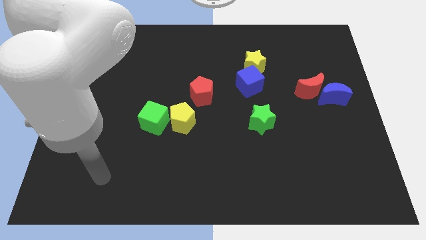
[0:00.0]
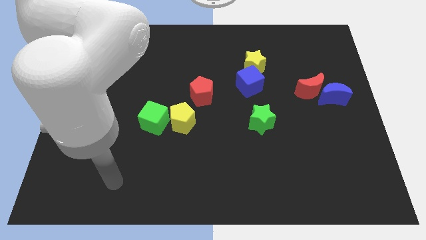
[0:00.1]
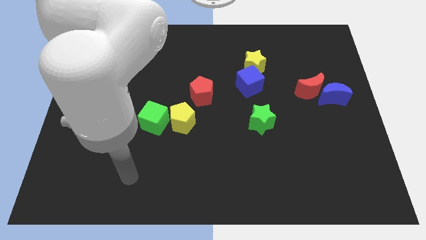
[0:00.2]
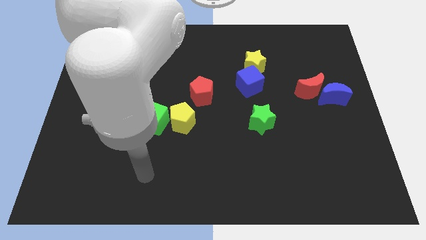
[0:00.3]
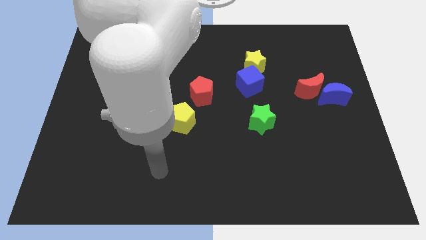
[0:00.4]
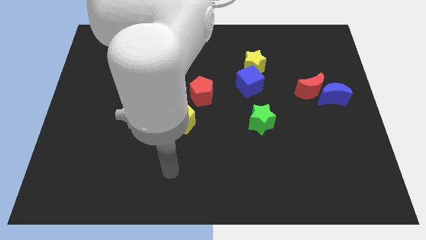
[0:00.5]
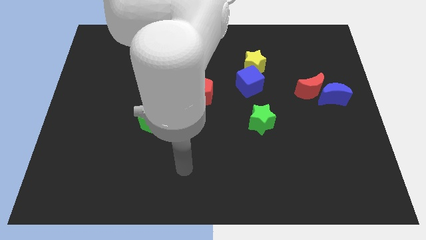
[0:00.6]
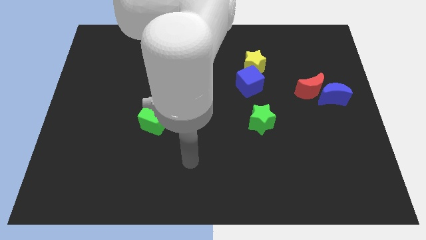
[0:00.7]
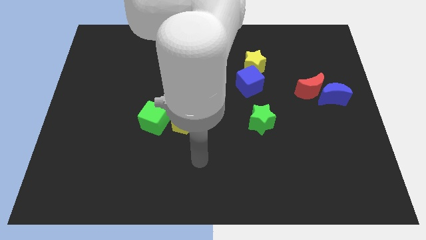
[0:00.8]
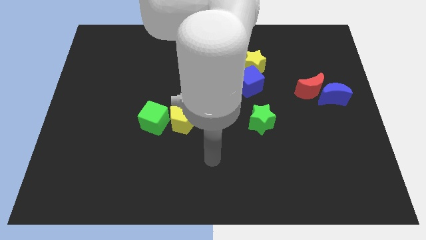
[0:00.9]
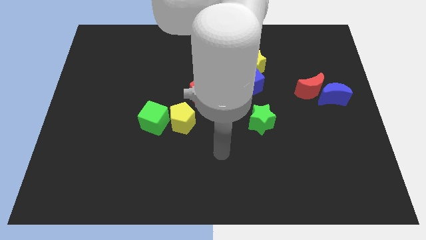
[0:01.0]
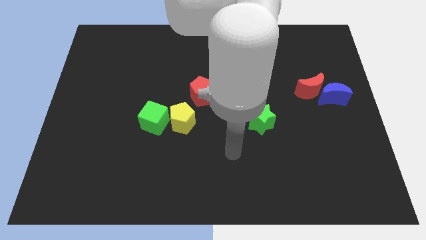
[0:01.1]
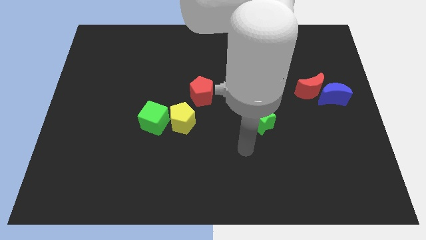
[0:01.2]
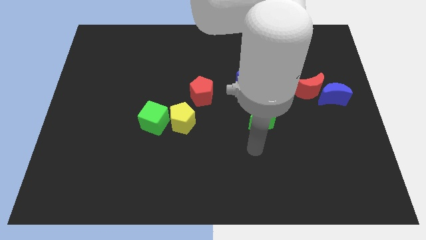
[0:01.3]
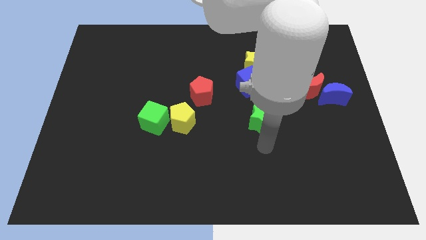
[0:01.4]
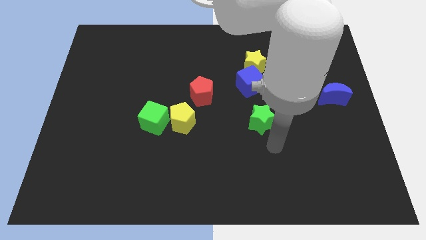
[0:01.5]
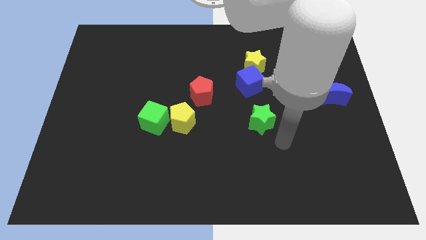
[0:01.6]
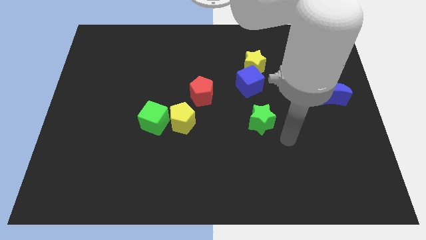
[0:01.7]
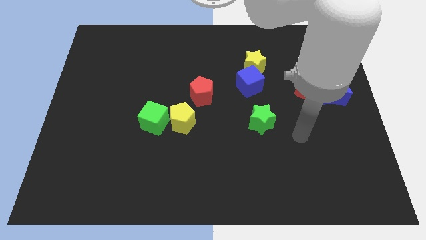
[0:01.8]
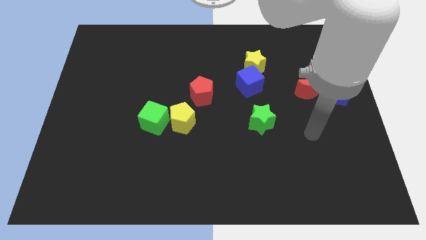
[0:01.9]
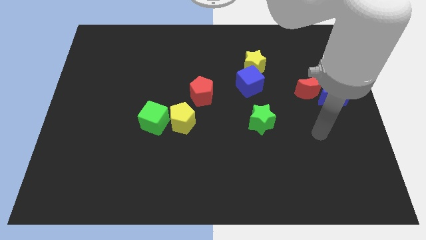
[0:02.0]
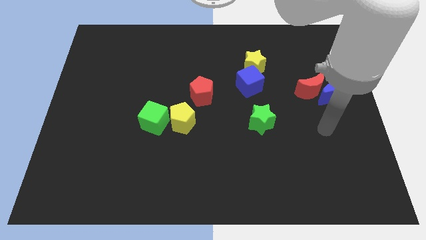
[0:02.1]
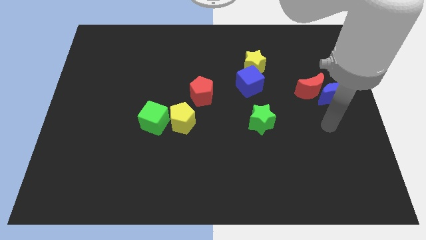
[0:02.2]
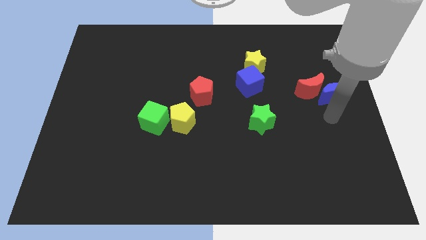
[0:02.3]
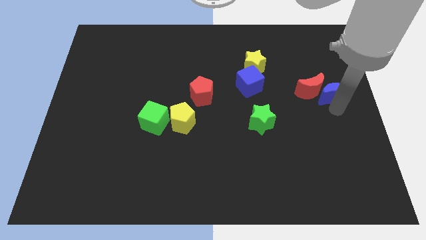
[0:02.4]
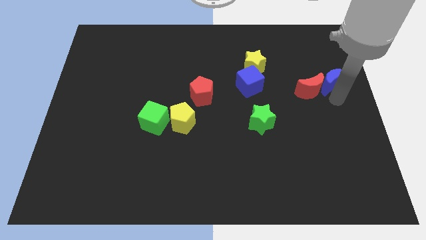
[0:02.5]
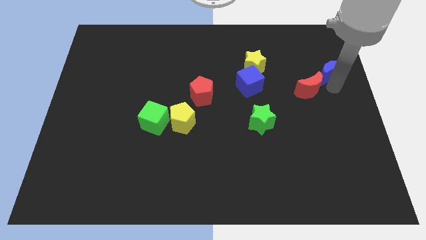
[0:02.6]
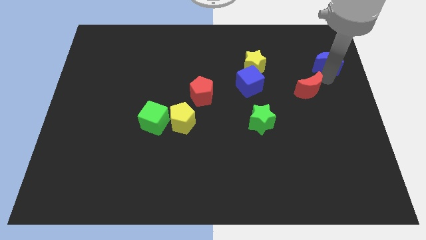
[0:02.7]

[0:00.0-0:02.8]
move the red moon away from the blue moon

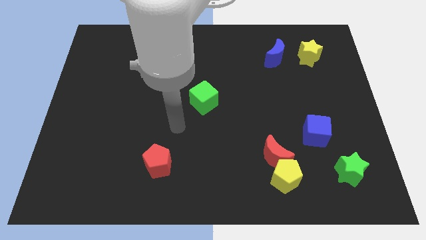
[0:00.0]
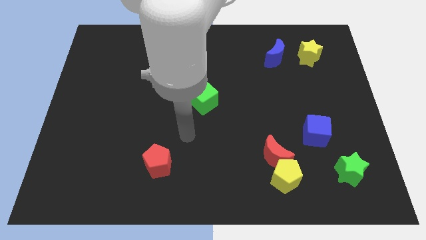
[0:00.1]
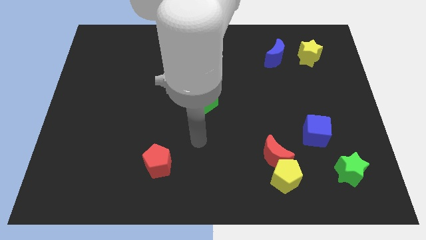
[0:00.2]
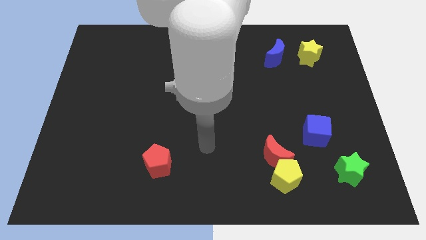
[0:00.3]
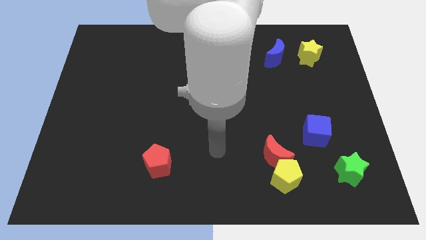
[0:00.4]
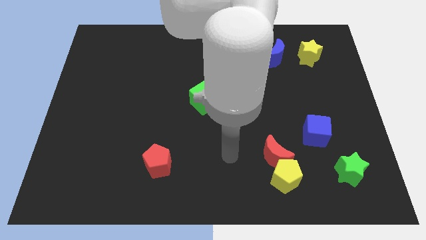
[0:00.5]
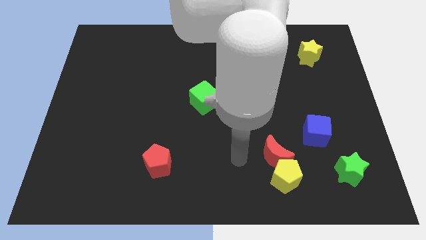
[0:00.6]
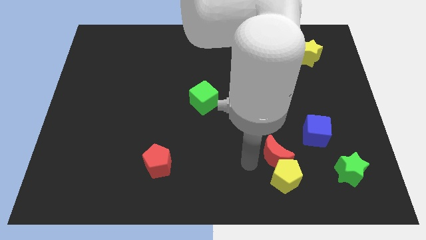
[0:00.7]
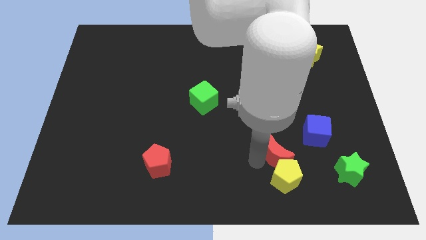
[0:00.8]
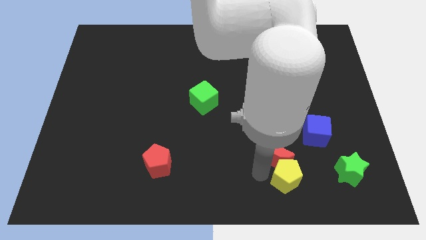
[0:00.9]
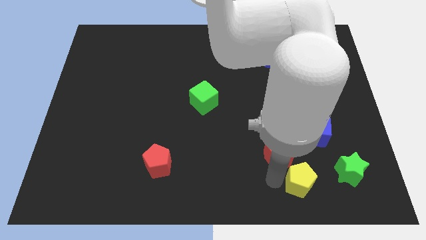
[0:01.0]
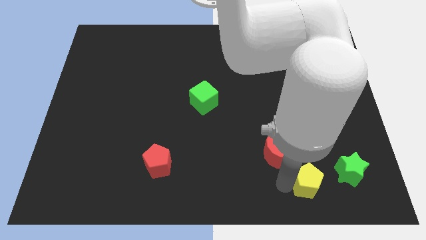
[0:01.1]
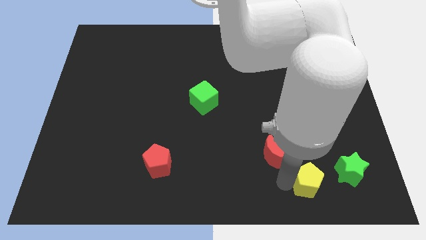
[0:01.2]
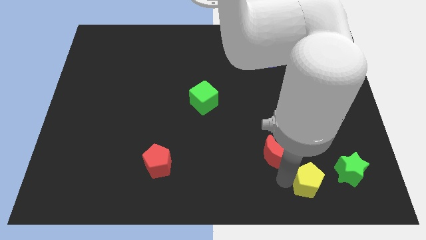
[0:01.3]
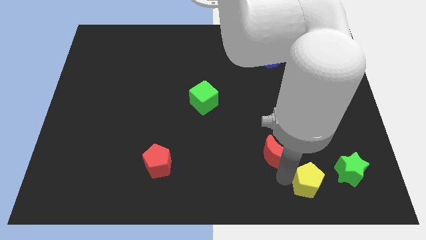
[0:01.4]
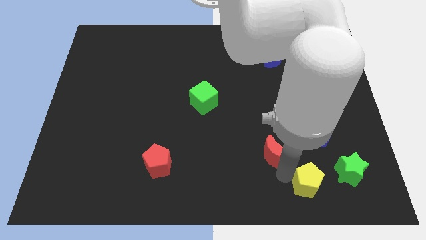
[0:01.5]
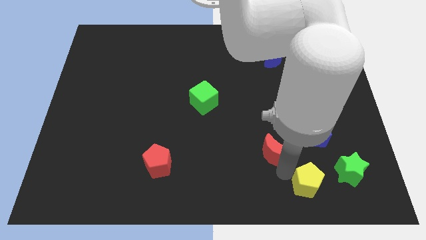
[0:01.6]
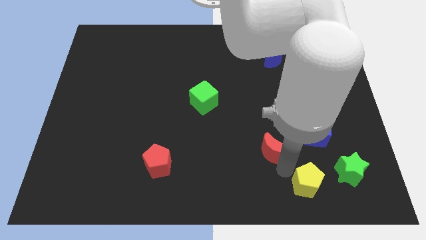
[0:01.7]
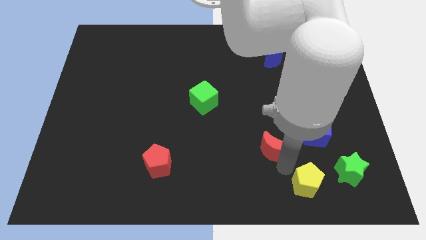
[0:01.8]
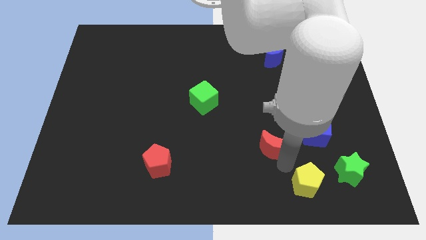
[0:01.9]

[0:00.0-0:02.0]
move the red moon away from the yellow pentagon

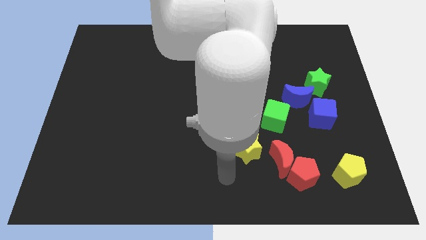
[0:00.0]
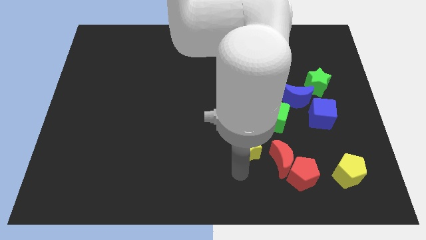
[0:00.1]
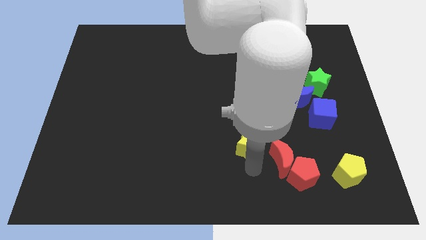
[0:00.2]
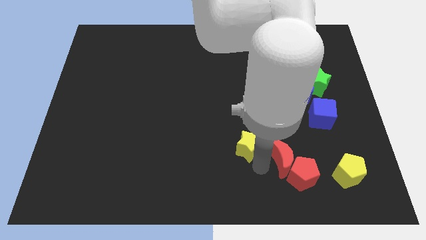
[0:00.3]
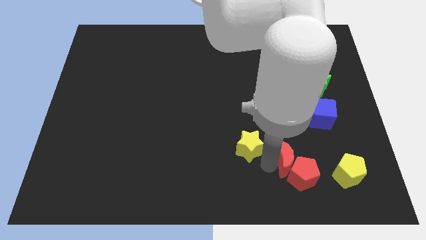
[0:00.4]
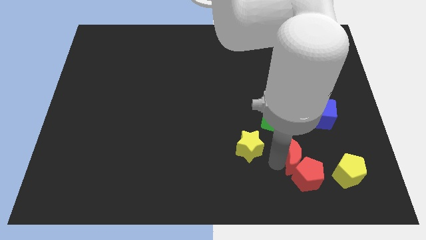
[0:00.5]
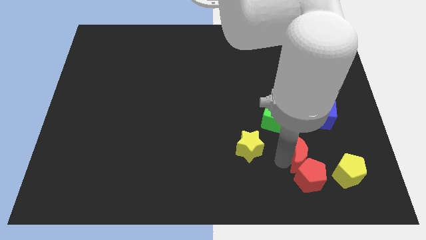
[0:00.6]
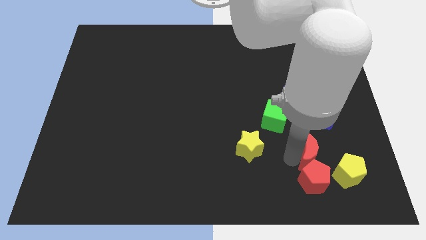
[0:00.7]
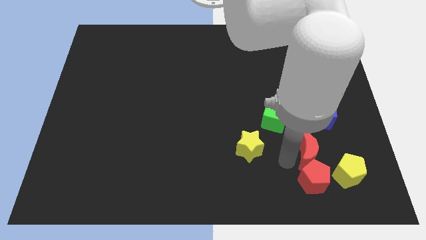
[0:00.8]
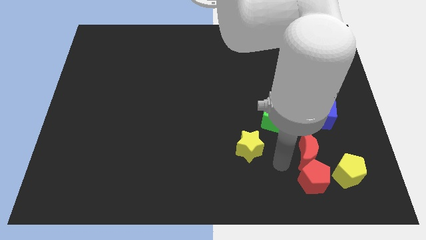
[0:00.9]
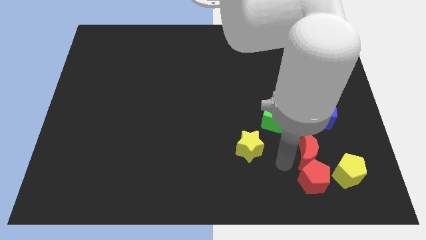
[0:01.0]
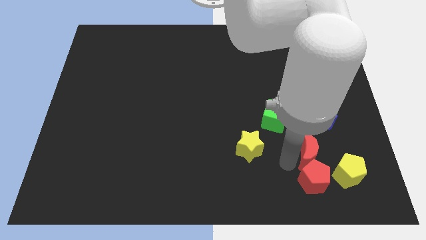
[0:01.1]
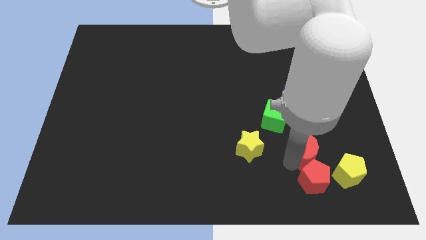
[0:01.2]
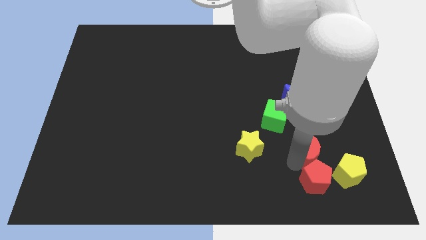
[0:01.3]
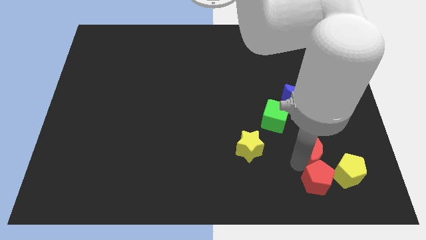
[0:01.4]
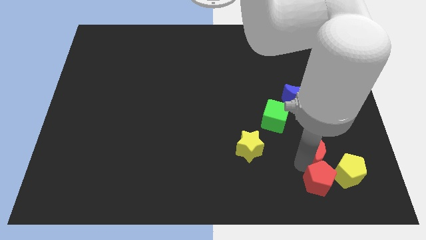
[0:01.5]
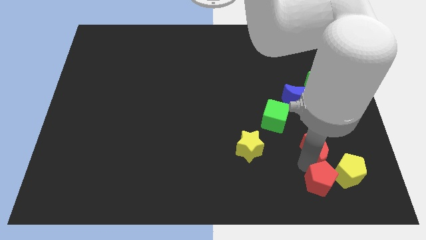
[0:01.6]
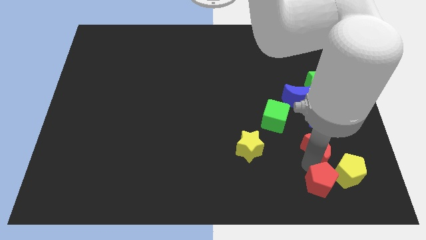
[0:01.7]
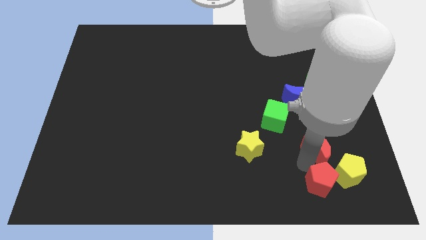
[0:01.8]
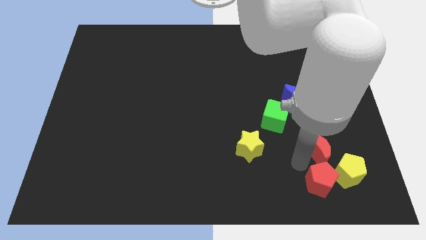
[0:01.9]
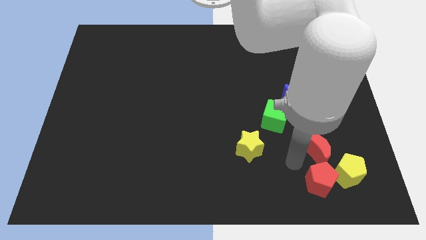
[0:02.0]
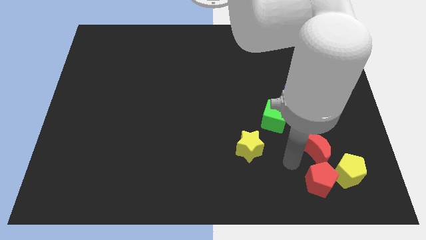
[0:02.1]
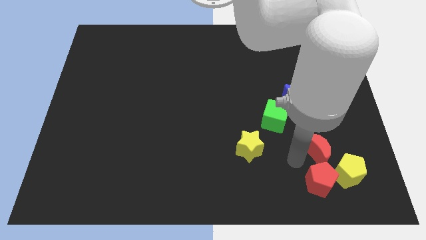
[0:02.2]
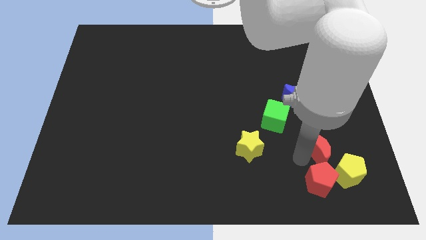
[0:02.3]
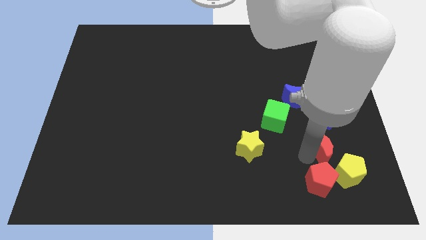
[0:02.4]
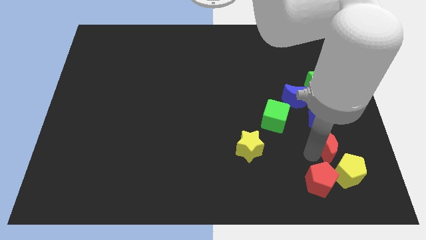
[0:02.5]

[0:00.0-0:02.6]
pull the red moon apart from the red pentagon and yellow star

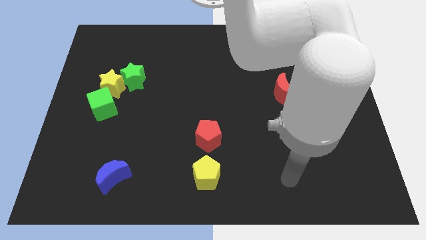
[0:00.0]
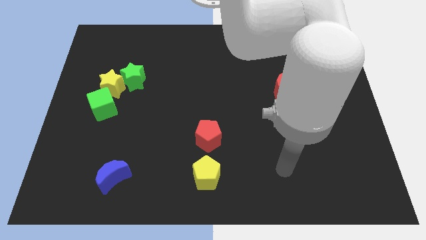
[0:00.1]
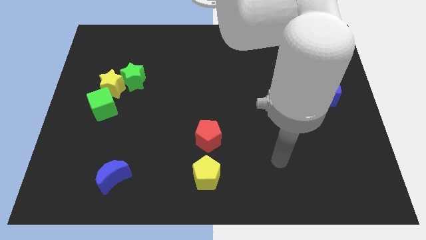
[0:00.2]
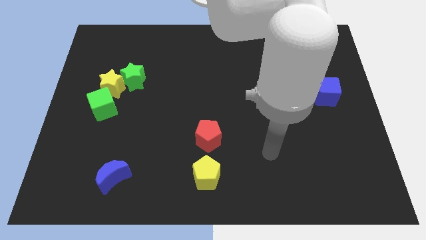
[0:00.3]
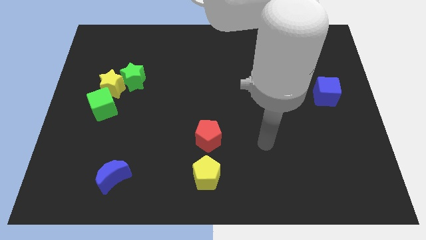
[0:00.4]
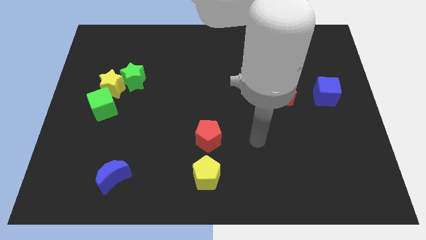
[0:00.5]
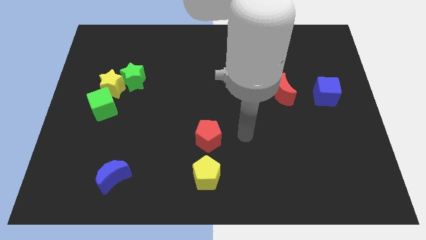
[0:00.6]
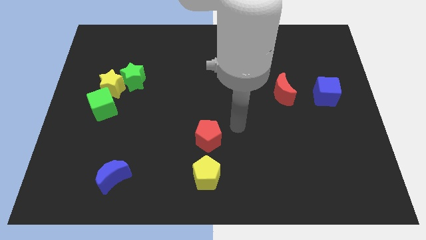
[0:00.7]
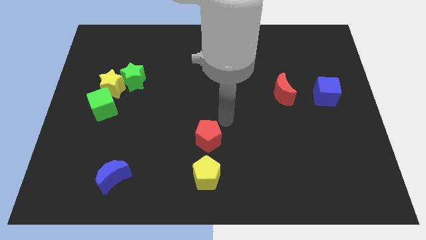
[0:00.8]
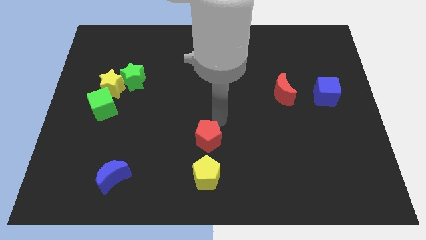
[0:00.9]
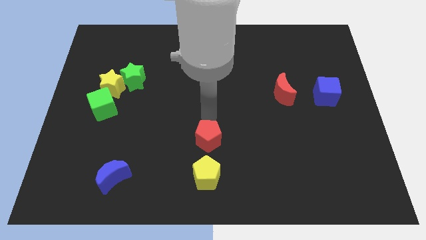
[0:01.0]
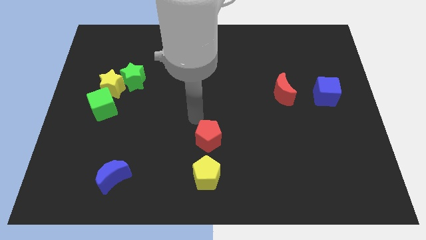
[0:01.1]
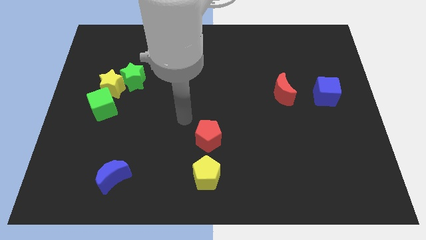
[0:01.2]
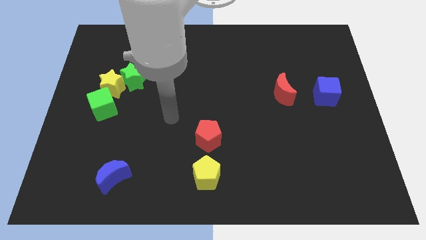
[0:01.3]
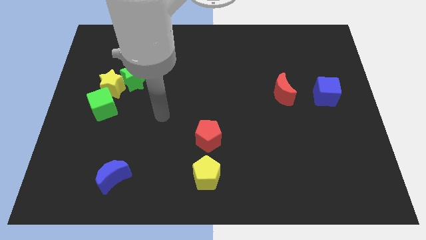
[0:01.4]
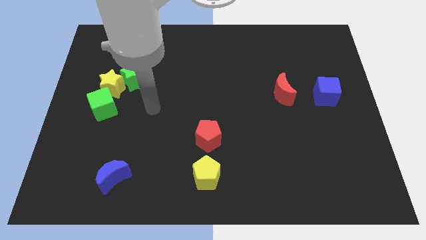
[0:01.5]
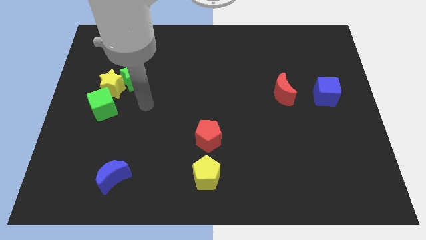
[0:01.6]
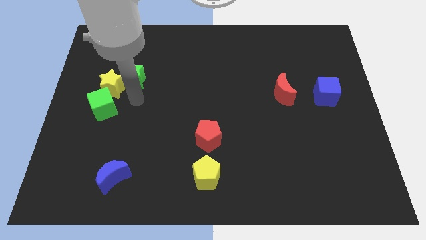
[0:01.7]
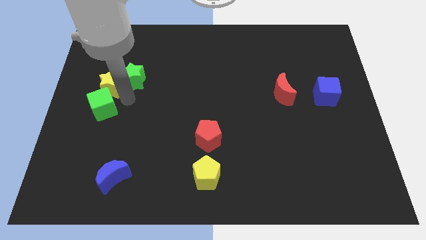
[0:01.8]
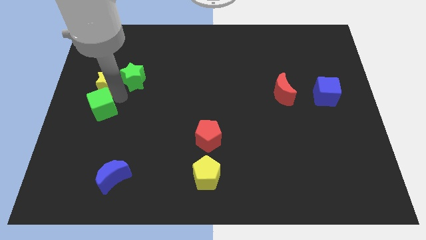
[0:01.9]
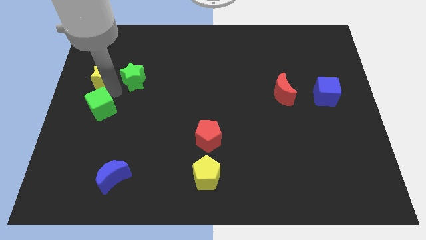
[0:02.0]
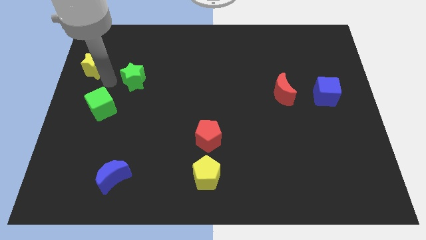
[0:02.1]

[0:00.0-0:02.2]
pull the green star apart from the yellow star
